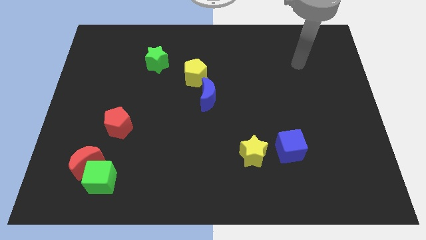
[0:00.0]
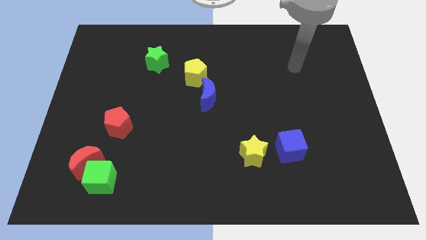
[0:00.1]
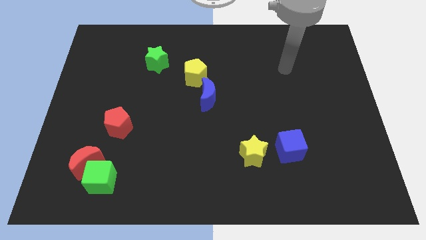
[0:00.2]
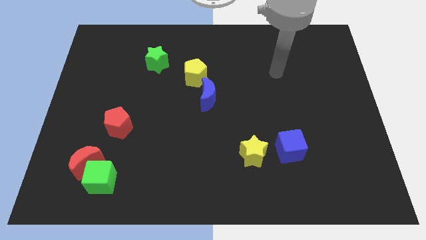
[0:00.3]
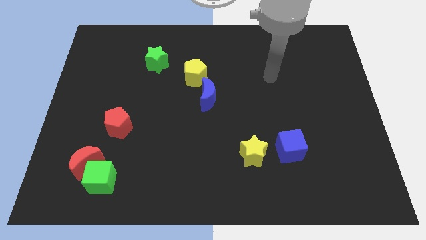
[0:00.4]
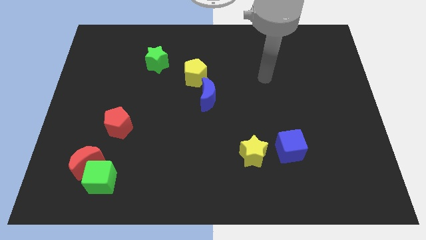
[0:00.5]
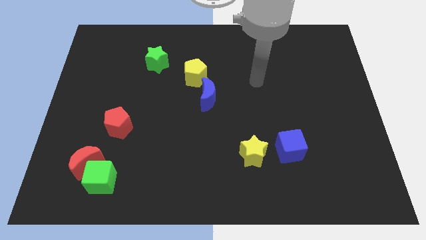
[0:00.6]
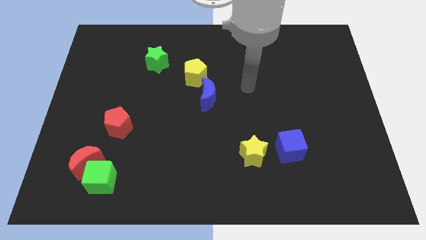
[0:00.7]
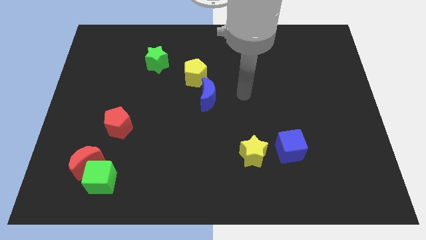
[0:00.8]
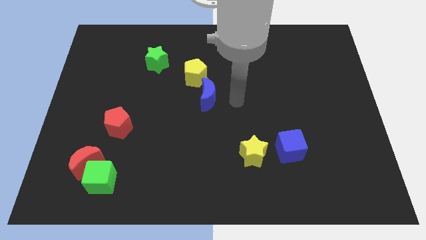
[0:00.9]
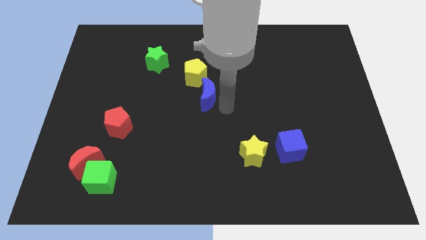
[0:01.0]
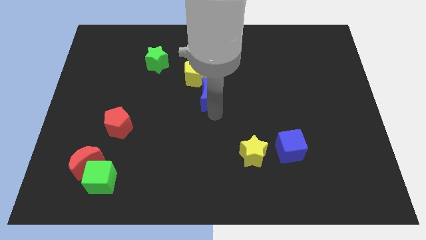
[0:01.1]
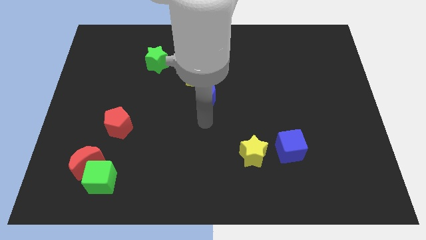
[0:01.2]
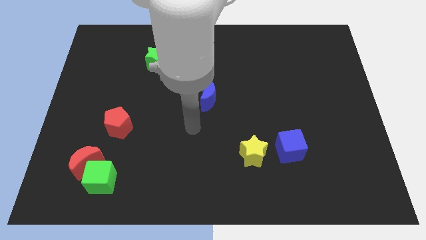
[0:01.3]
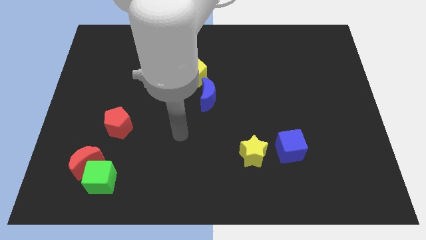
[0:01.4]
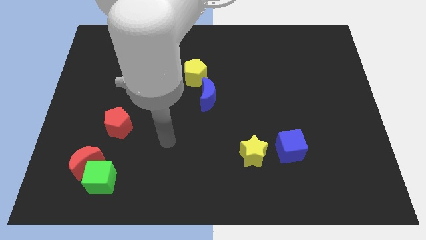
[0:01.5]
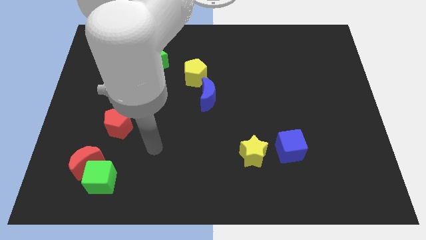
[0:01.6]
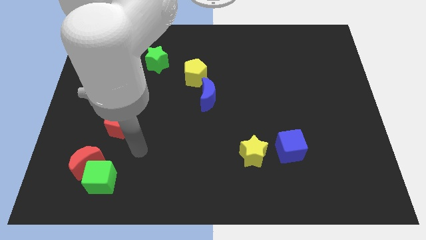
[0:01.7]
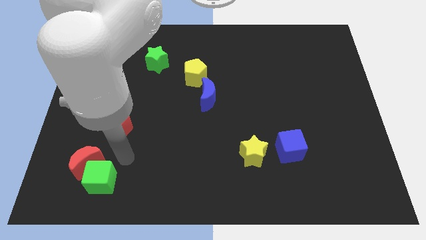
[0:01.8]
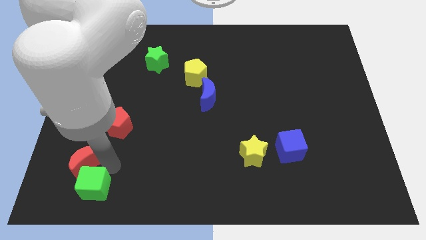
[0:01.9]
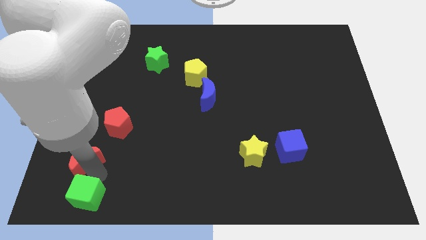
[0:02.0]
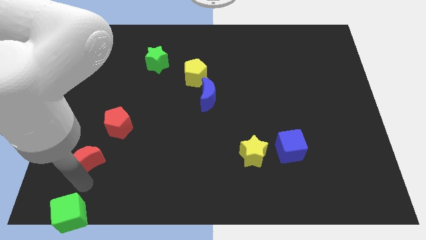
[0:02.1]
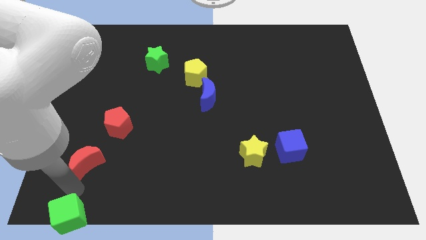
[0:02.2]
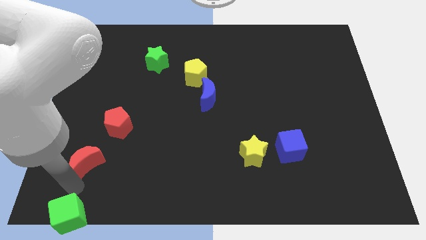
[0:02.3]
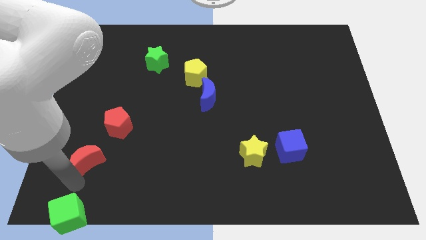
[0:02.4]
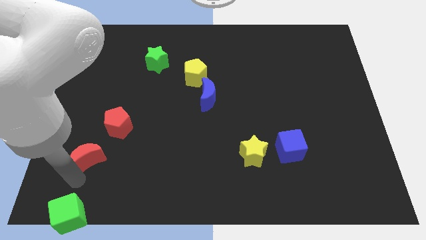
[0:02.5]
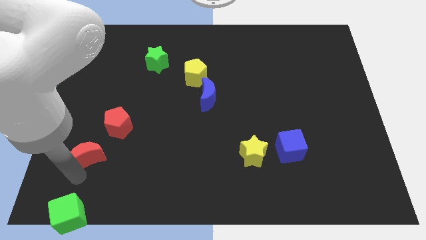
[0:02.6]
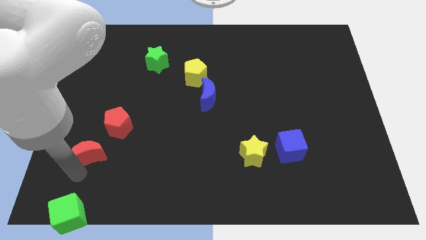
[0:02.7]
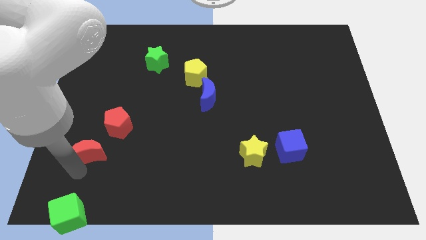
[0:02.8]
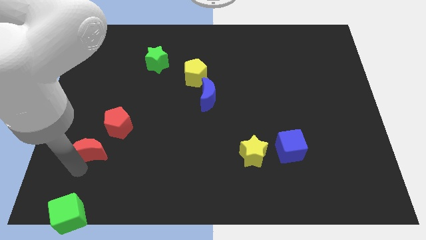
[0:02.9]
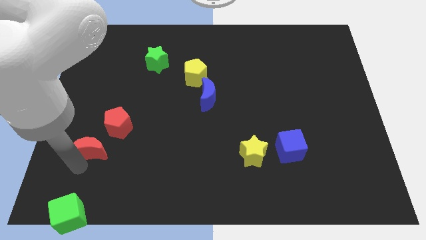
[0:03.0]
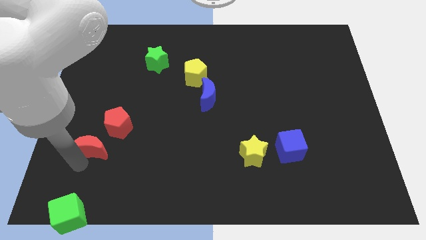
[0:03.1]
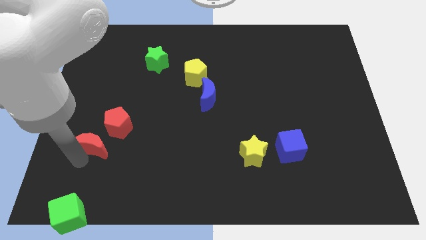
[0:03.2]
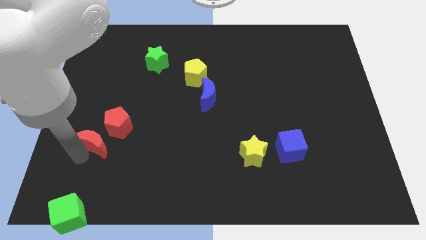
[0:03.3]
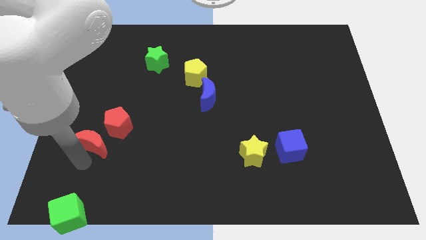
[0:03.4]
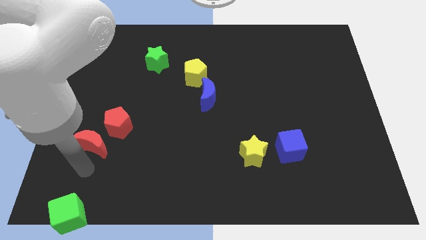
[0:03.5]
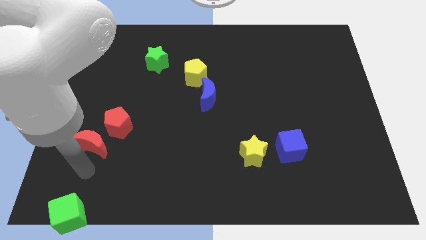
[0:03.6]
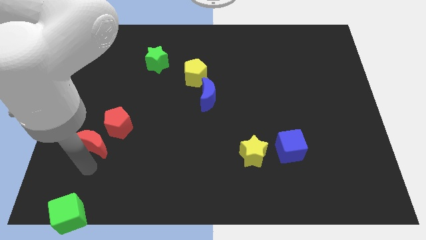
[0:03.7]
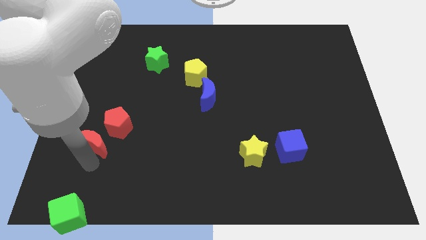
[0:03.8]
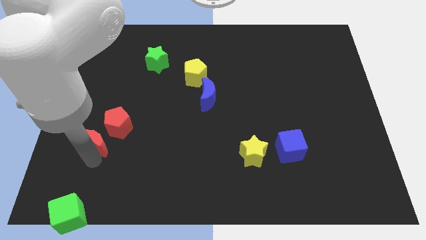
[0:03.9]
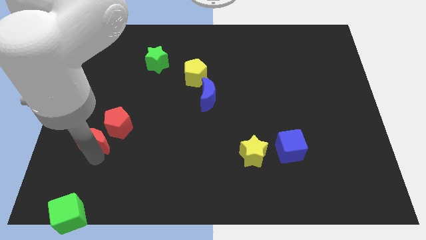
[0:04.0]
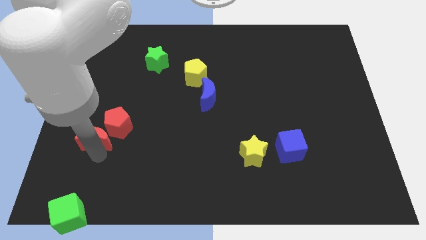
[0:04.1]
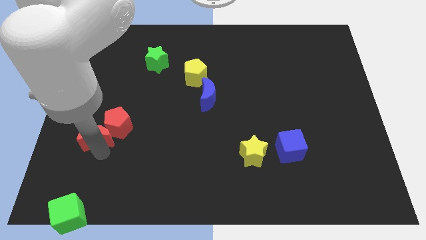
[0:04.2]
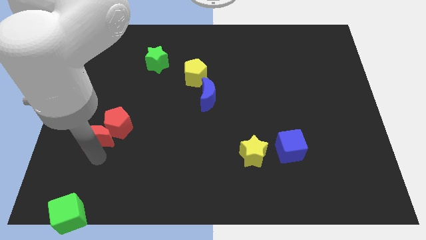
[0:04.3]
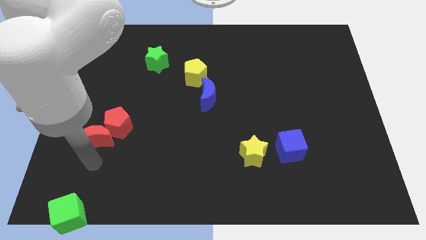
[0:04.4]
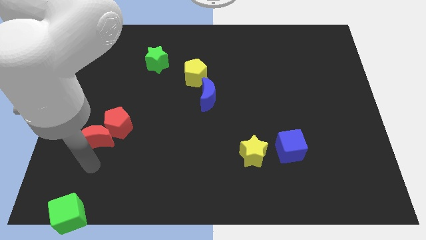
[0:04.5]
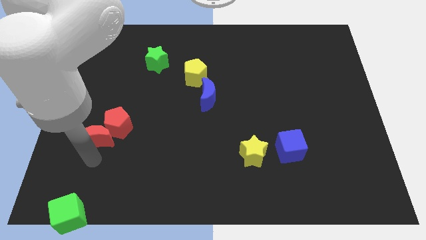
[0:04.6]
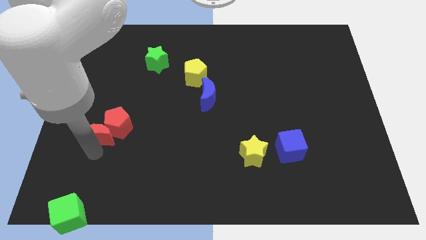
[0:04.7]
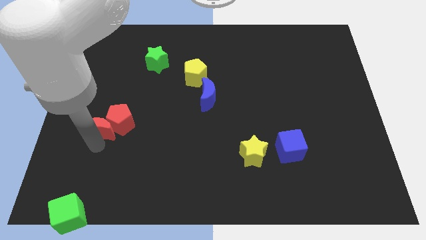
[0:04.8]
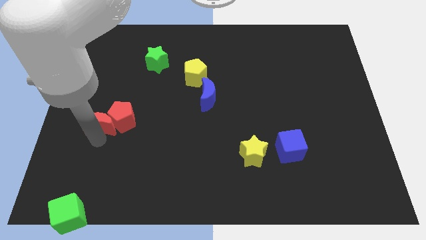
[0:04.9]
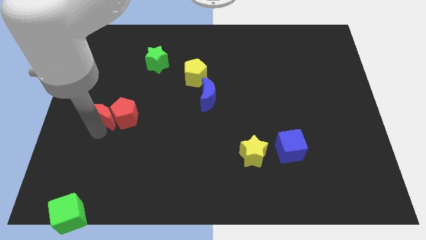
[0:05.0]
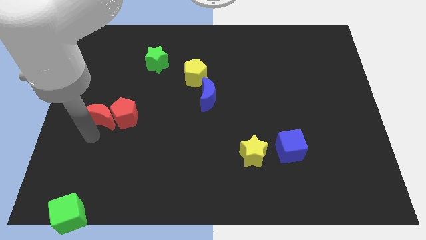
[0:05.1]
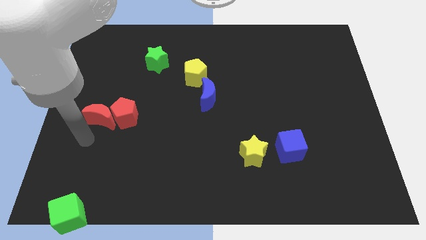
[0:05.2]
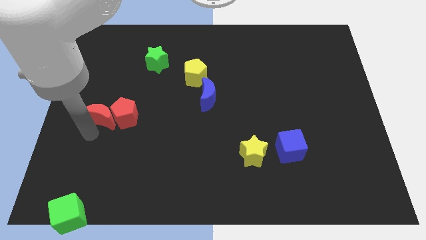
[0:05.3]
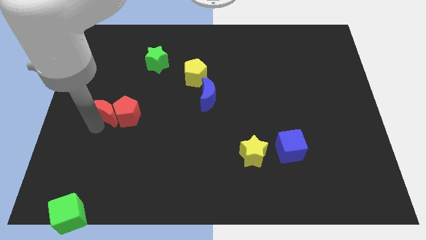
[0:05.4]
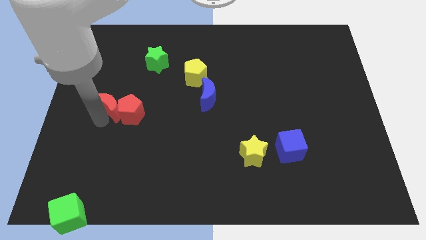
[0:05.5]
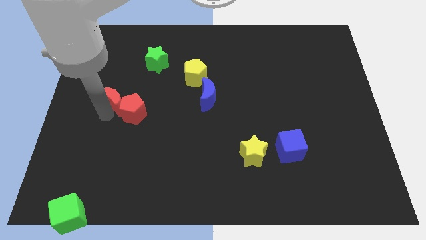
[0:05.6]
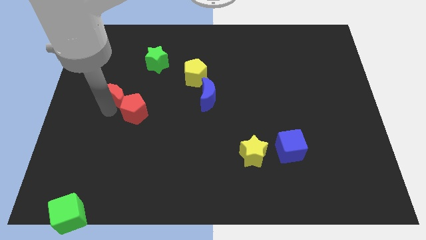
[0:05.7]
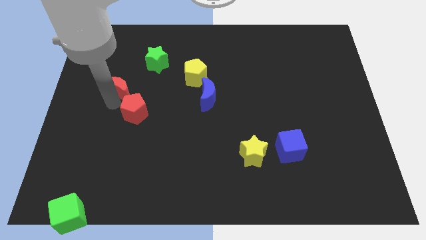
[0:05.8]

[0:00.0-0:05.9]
push the red moon to the bottom left side of the green star

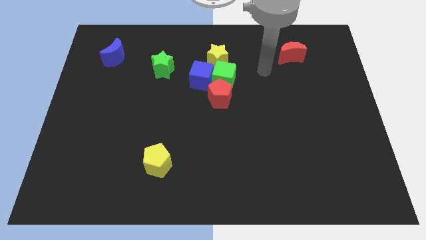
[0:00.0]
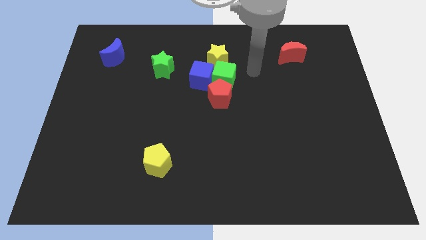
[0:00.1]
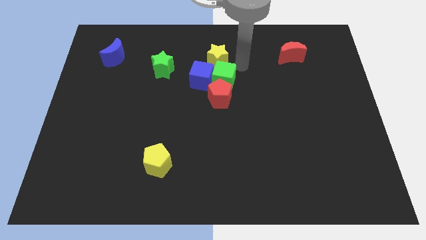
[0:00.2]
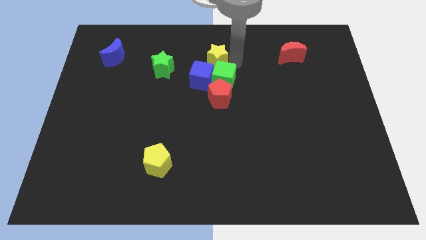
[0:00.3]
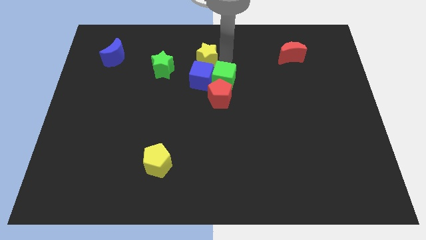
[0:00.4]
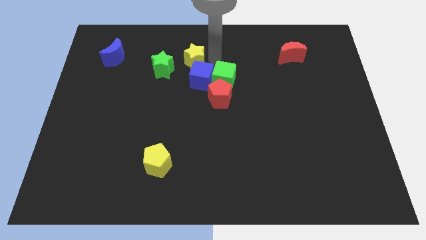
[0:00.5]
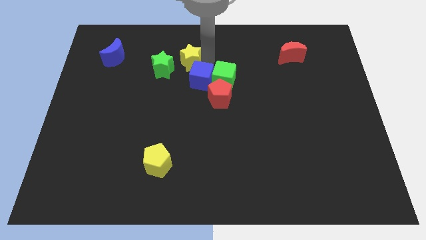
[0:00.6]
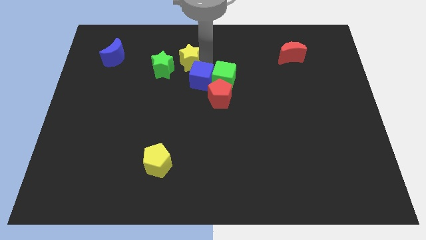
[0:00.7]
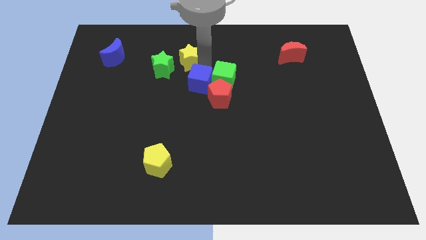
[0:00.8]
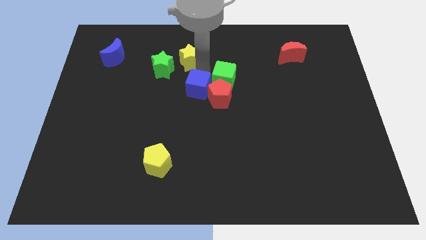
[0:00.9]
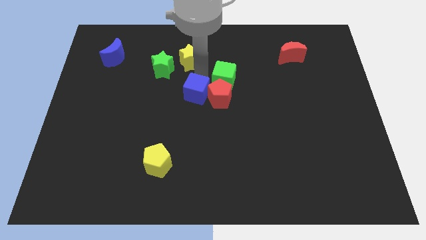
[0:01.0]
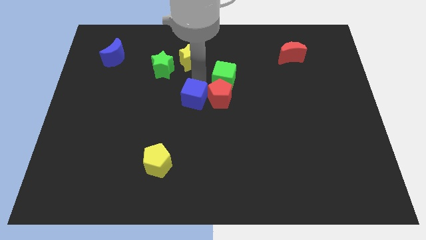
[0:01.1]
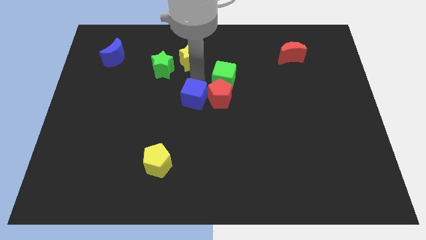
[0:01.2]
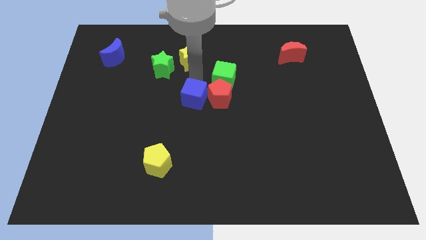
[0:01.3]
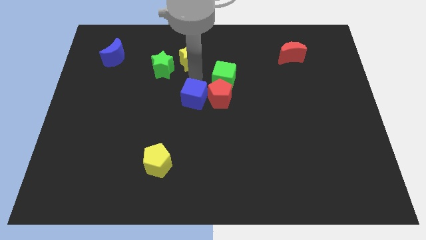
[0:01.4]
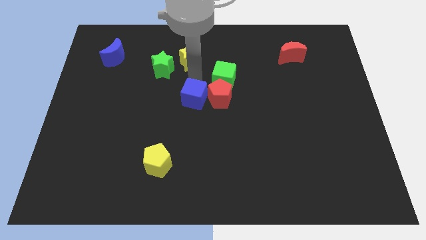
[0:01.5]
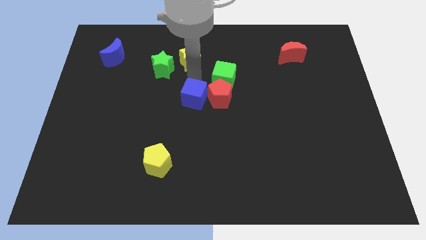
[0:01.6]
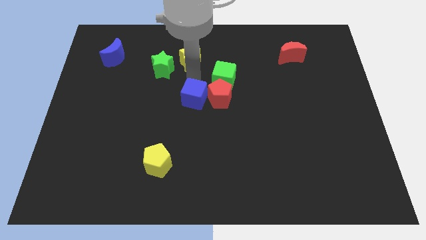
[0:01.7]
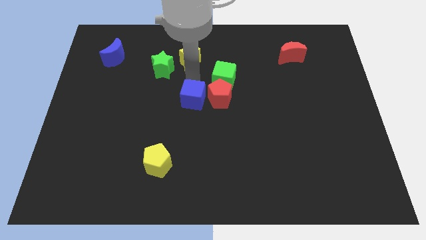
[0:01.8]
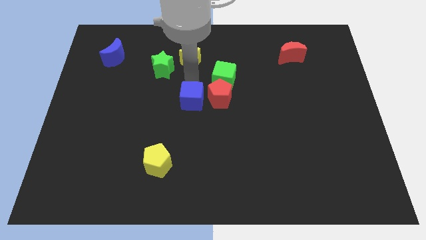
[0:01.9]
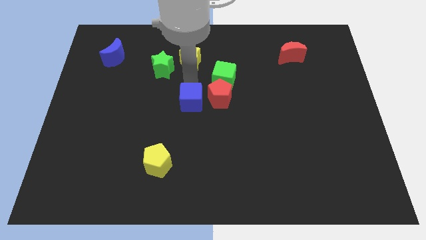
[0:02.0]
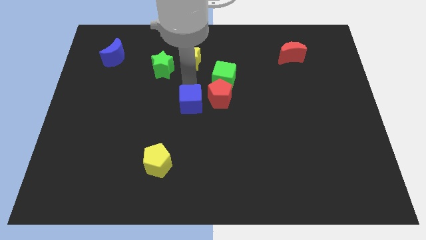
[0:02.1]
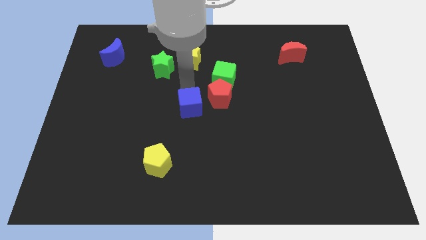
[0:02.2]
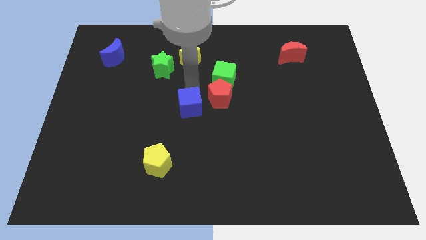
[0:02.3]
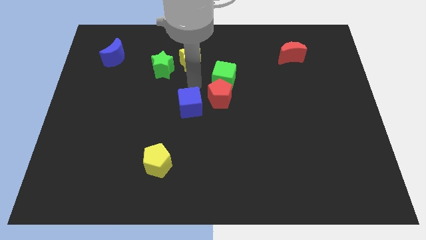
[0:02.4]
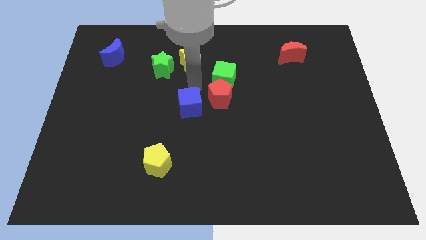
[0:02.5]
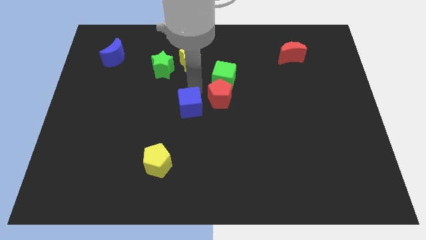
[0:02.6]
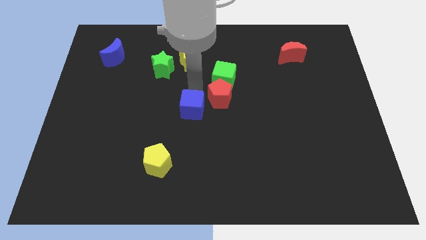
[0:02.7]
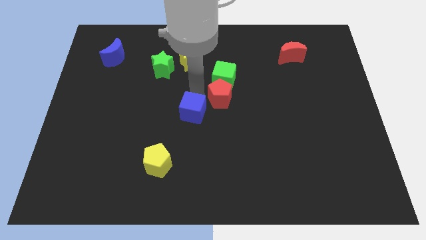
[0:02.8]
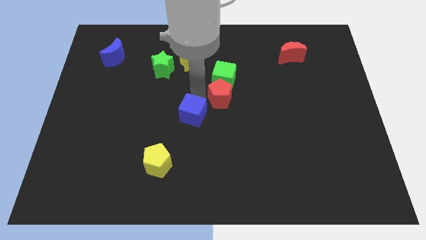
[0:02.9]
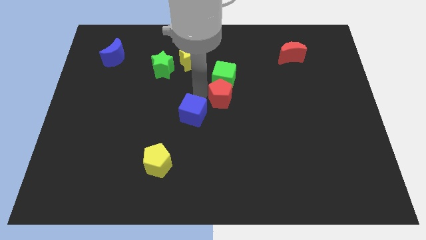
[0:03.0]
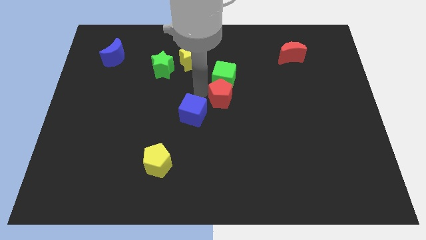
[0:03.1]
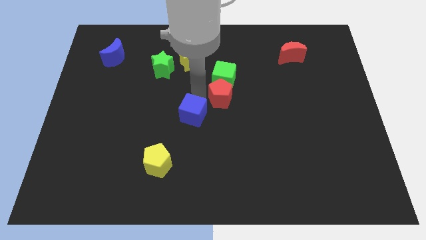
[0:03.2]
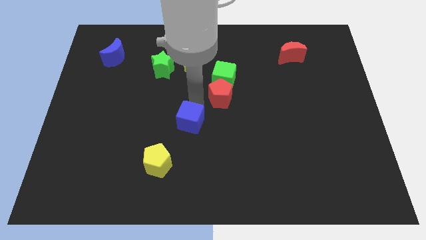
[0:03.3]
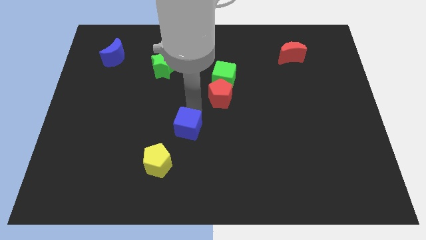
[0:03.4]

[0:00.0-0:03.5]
move the blue cube to the top right of the yellow pentagon
